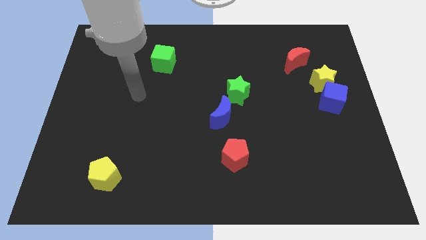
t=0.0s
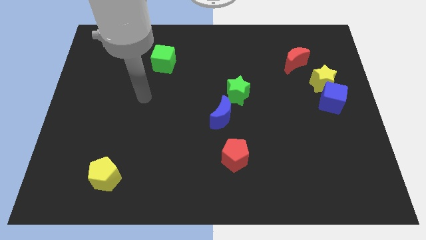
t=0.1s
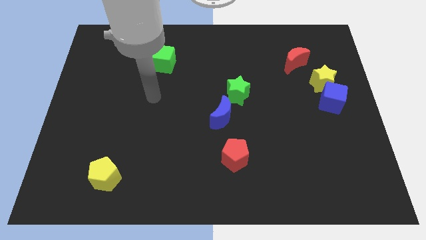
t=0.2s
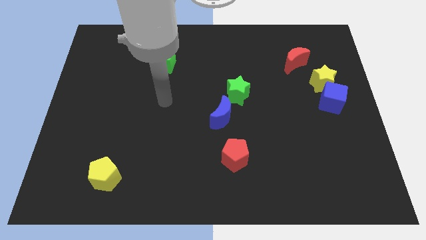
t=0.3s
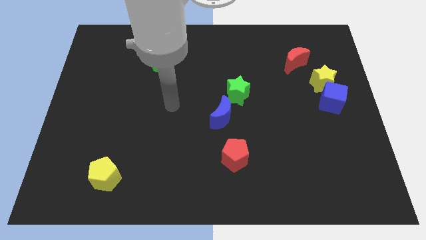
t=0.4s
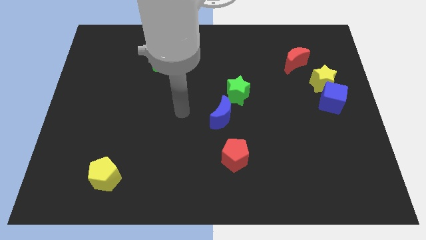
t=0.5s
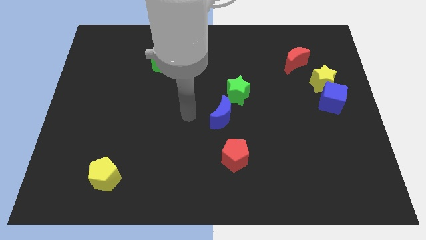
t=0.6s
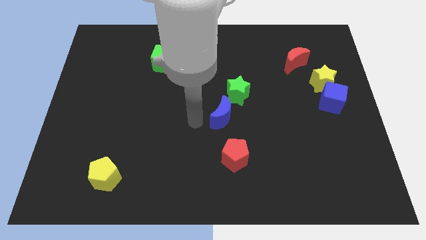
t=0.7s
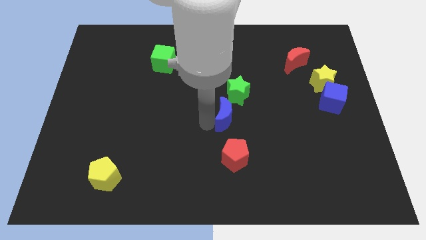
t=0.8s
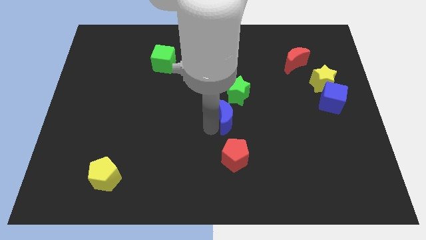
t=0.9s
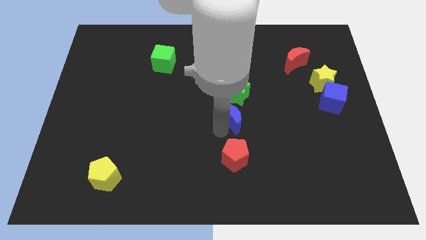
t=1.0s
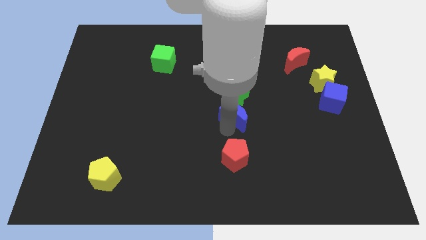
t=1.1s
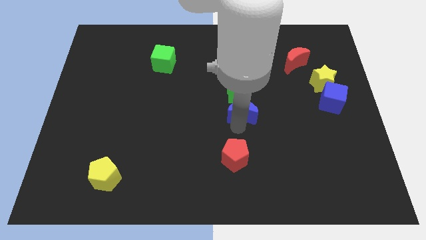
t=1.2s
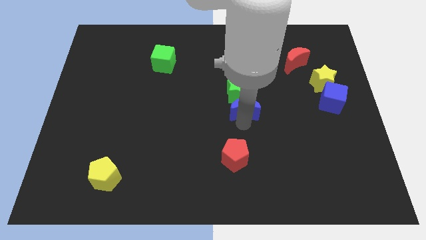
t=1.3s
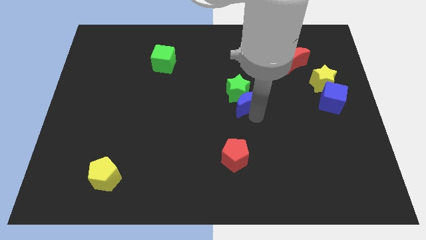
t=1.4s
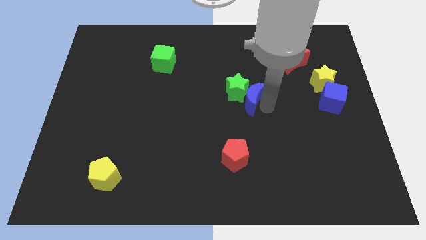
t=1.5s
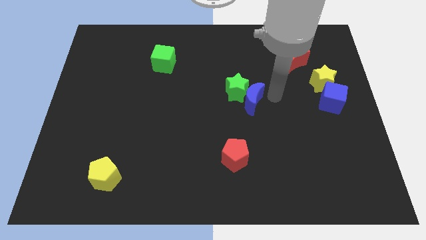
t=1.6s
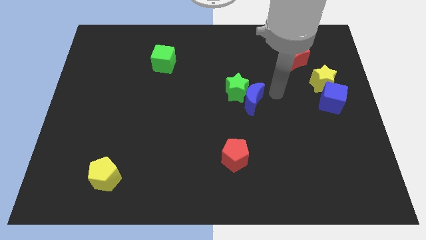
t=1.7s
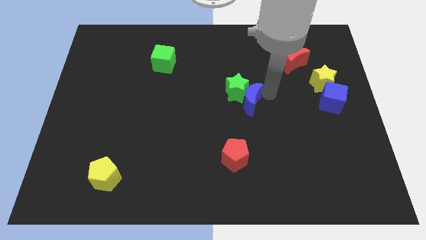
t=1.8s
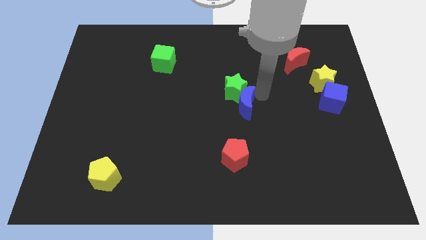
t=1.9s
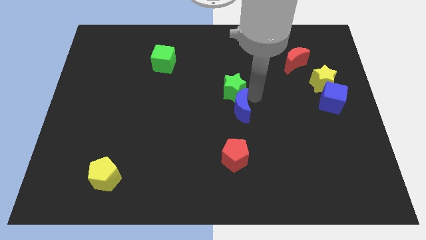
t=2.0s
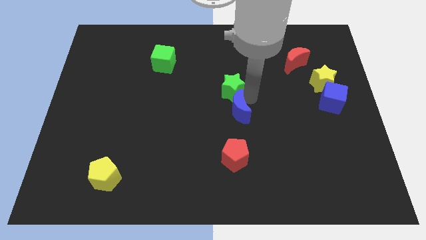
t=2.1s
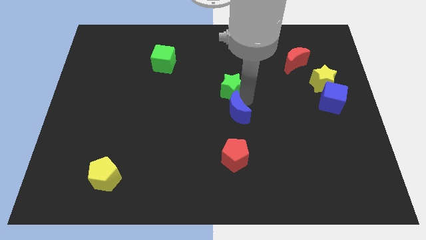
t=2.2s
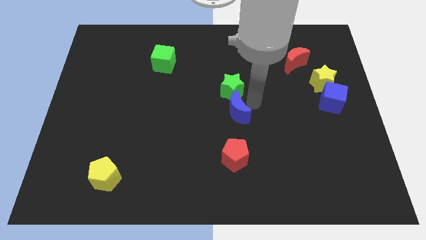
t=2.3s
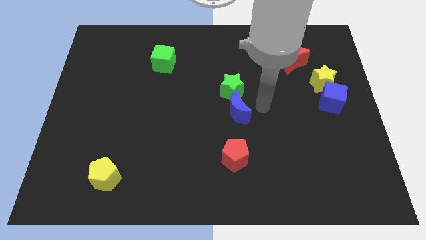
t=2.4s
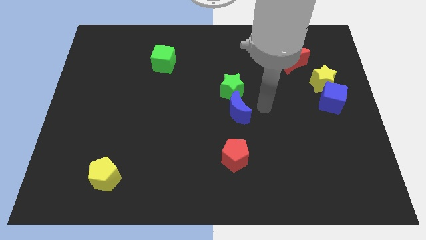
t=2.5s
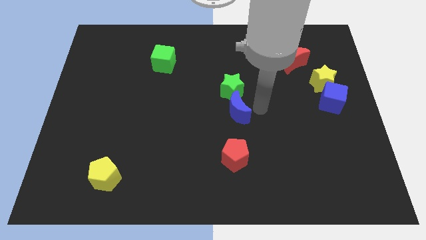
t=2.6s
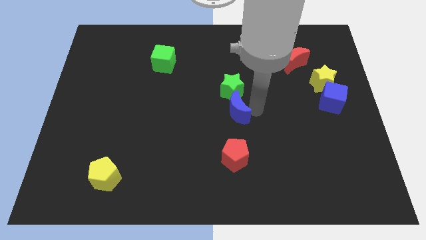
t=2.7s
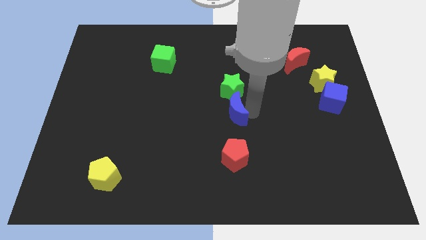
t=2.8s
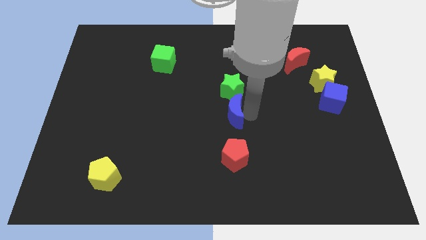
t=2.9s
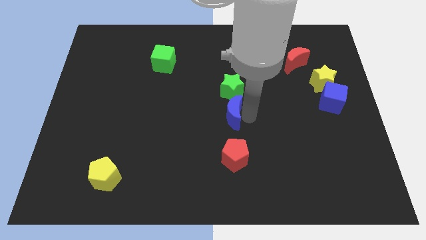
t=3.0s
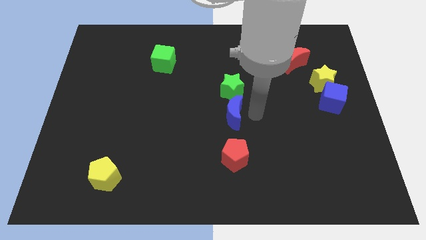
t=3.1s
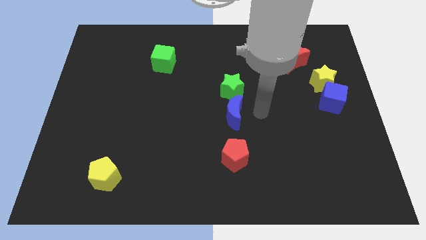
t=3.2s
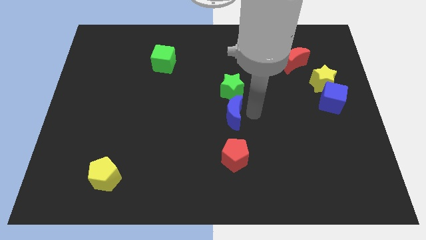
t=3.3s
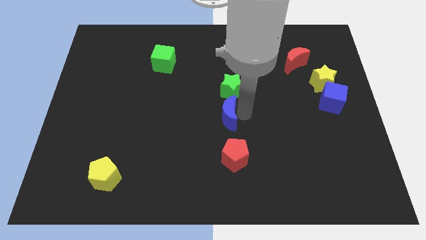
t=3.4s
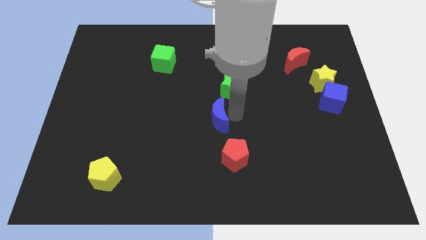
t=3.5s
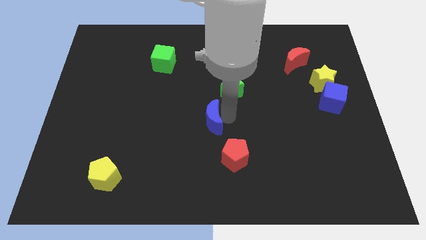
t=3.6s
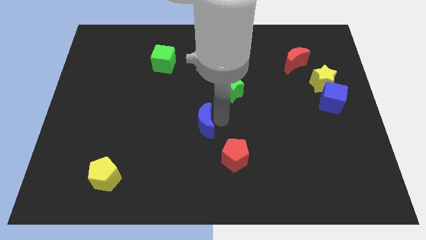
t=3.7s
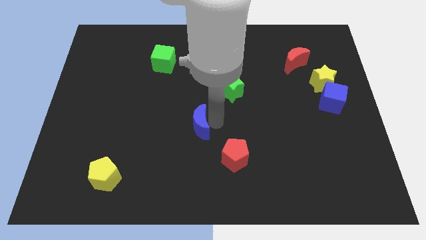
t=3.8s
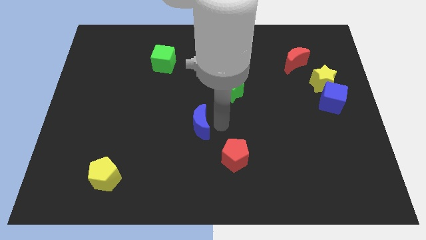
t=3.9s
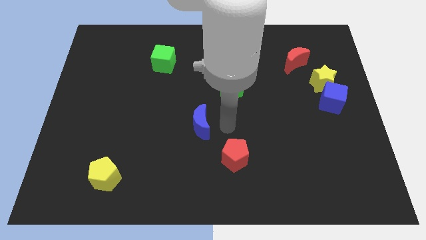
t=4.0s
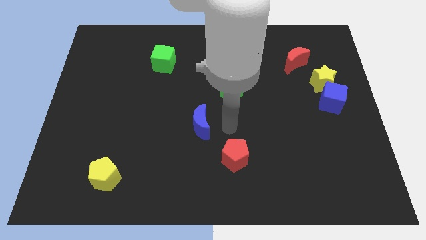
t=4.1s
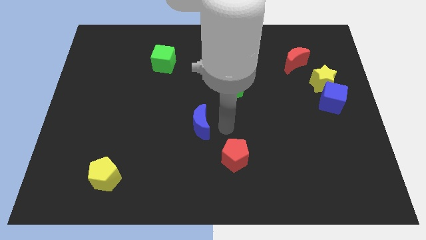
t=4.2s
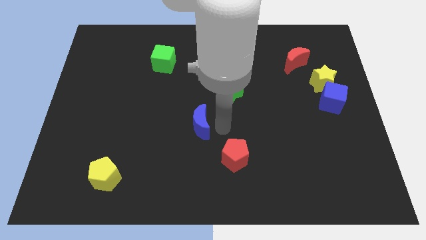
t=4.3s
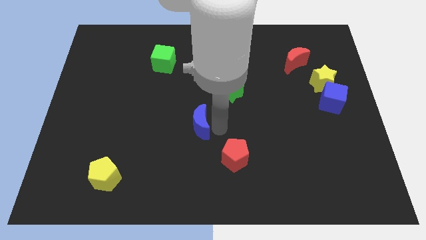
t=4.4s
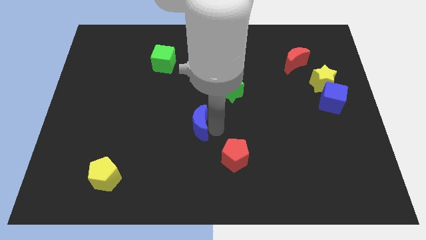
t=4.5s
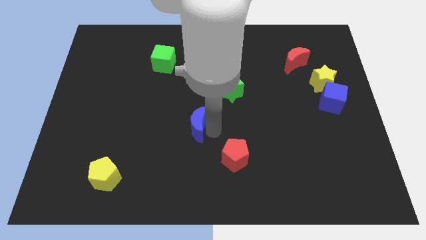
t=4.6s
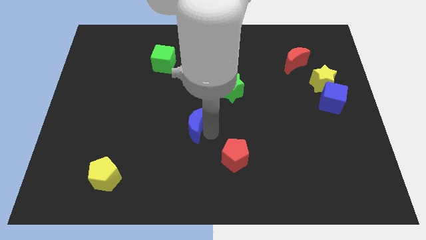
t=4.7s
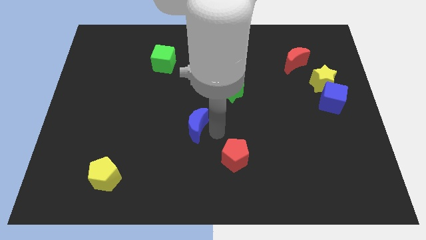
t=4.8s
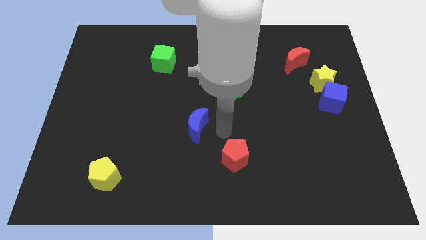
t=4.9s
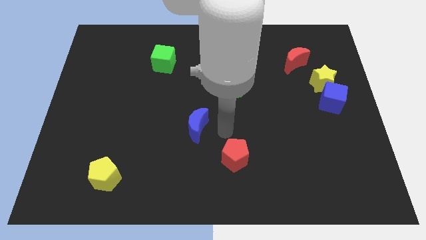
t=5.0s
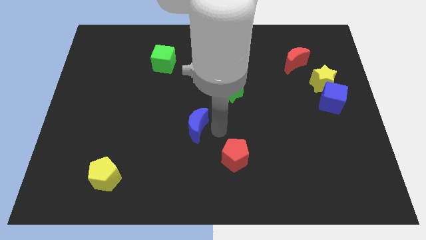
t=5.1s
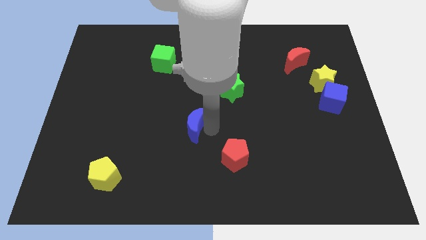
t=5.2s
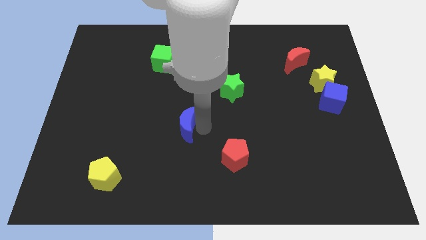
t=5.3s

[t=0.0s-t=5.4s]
push the blue moon left slightly

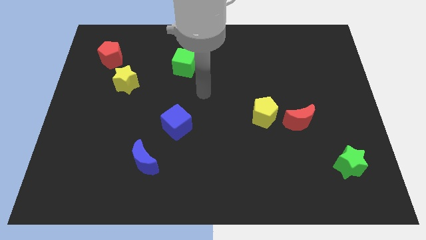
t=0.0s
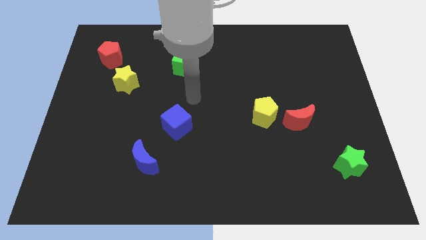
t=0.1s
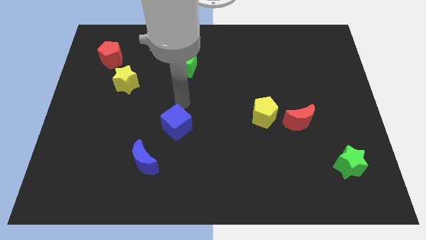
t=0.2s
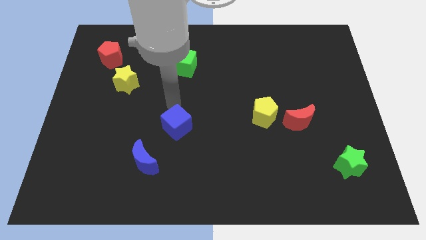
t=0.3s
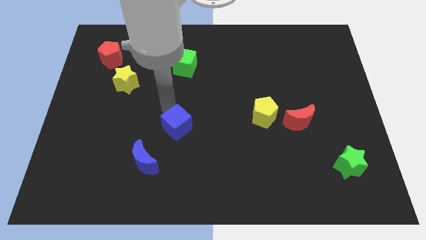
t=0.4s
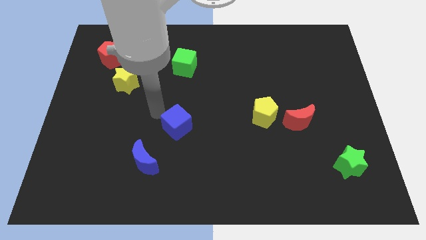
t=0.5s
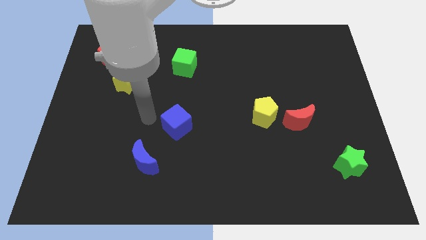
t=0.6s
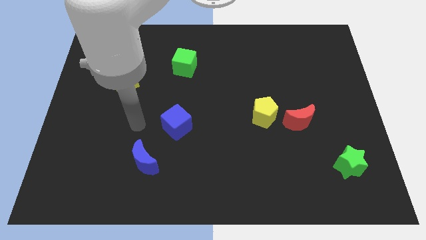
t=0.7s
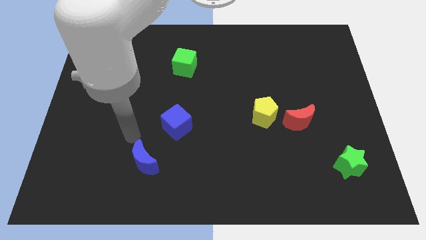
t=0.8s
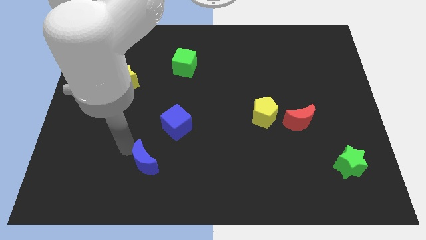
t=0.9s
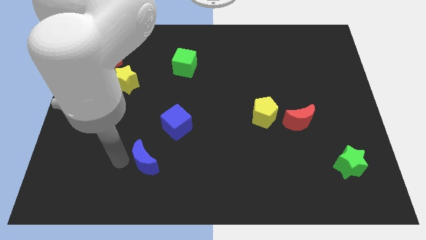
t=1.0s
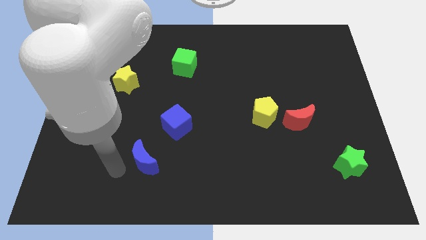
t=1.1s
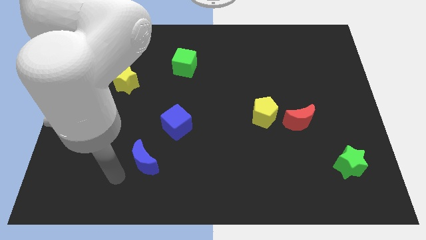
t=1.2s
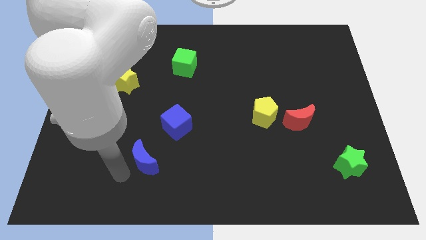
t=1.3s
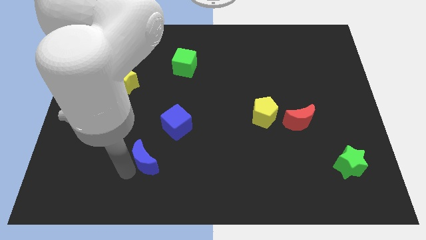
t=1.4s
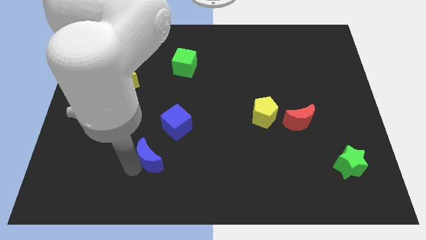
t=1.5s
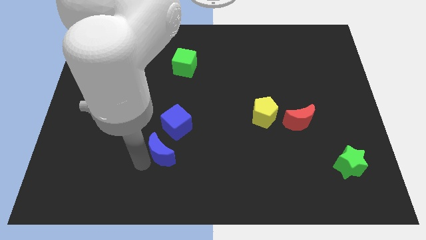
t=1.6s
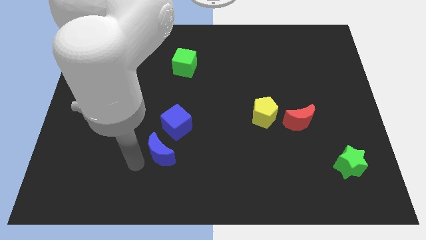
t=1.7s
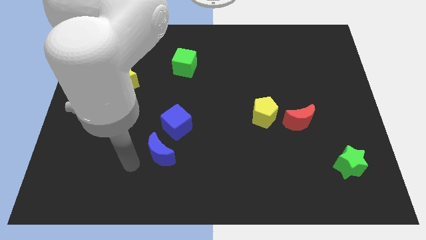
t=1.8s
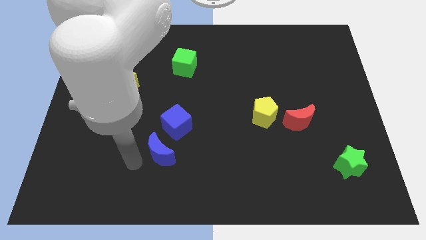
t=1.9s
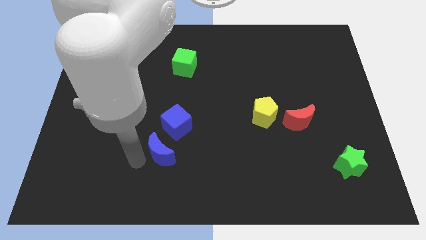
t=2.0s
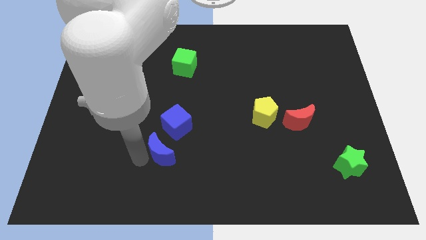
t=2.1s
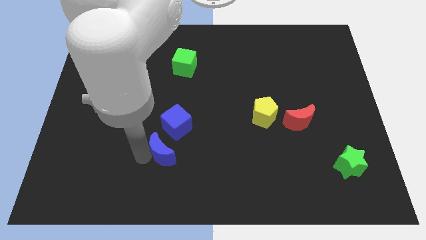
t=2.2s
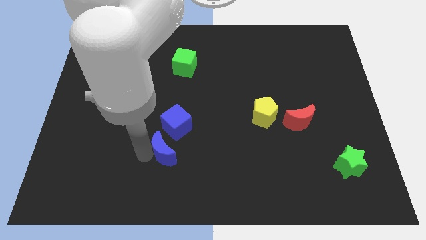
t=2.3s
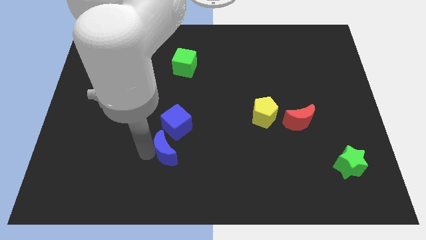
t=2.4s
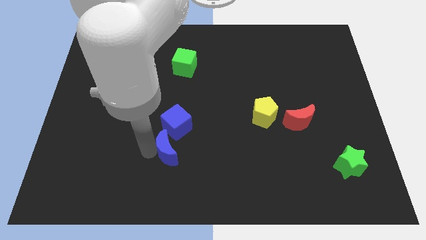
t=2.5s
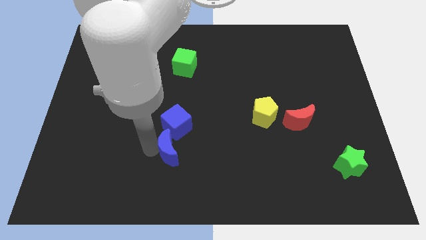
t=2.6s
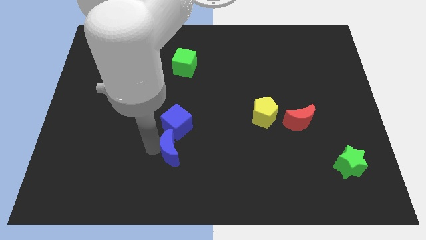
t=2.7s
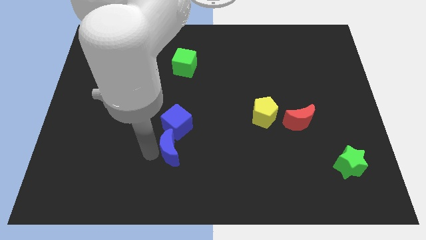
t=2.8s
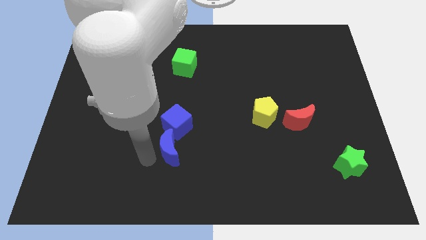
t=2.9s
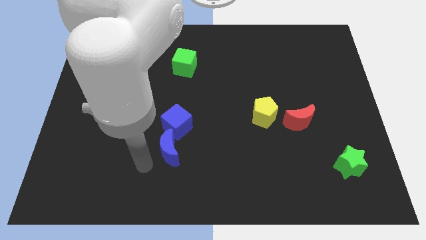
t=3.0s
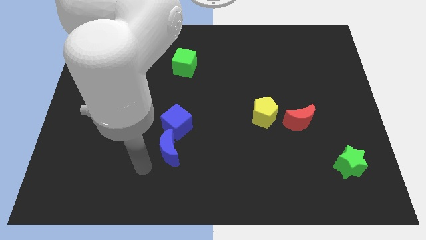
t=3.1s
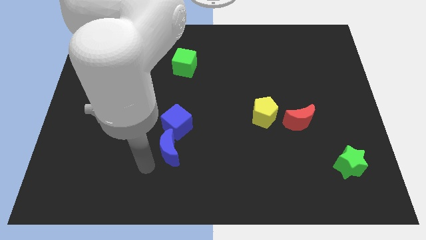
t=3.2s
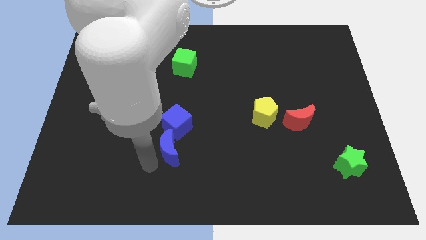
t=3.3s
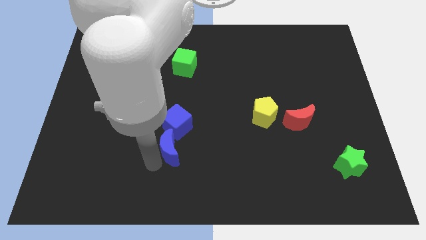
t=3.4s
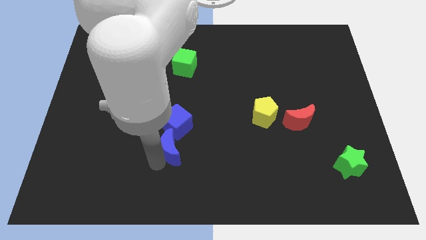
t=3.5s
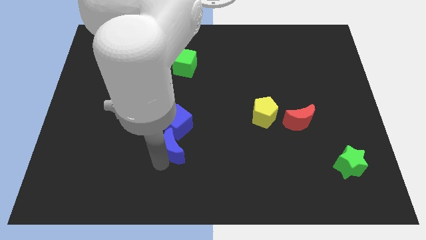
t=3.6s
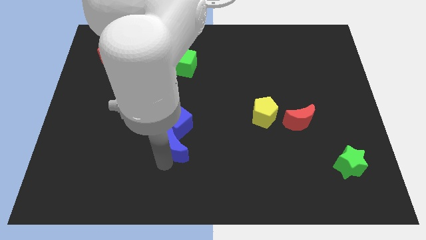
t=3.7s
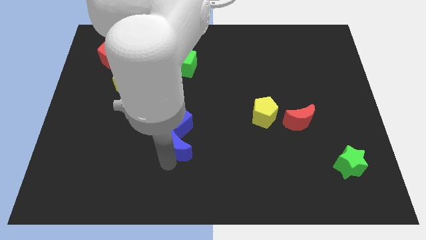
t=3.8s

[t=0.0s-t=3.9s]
slightly push the blue moon upwards and to the right
